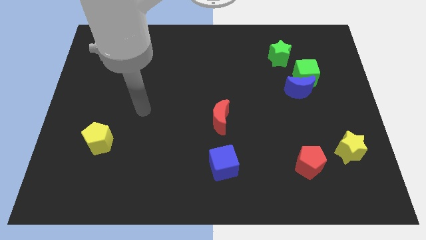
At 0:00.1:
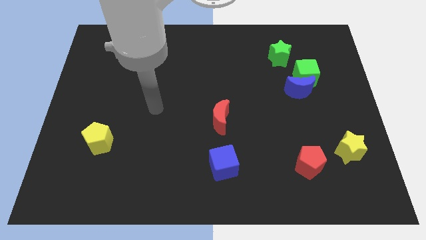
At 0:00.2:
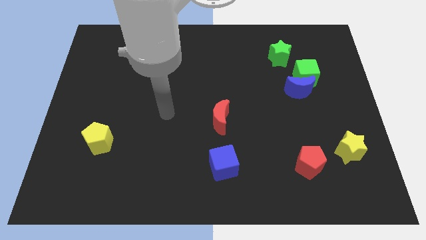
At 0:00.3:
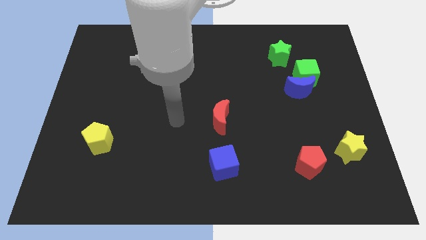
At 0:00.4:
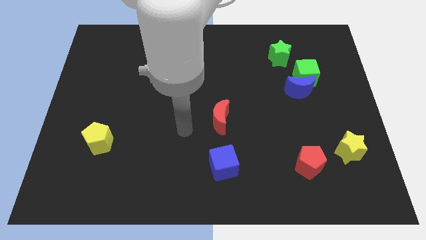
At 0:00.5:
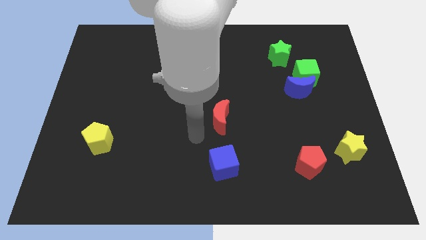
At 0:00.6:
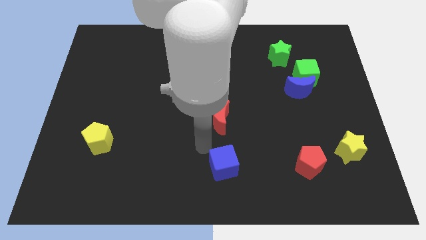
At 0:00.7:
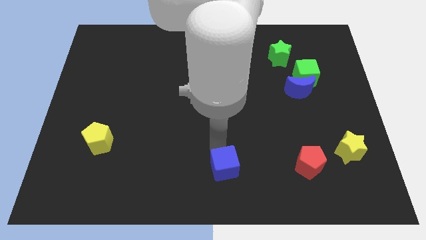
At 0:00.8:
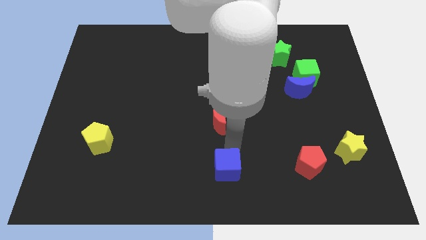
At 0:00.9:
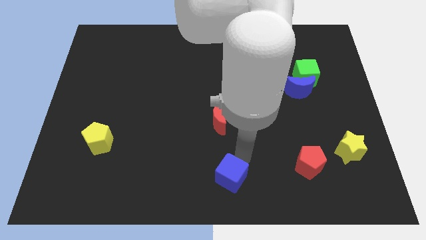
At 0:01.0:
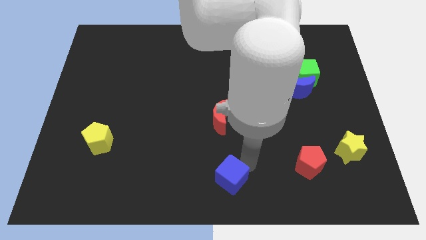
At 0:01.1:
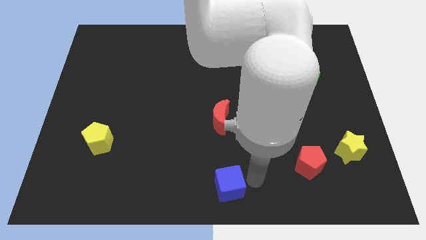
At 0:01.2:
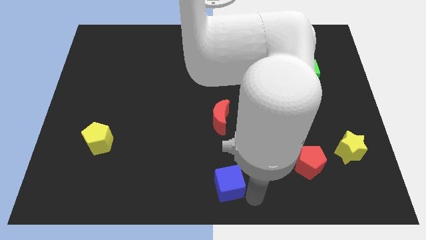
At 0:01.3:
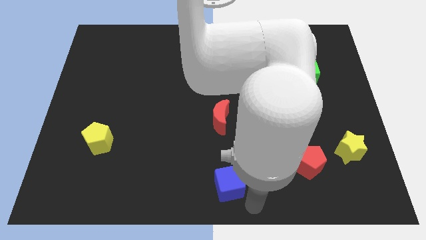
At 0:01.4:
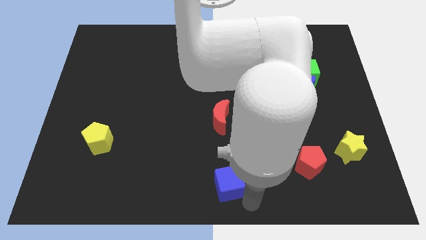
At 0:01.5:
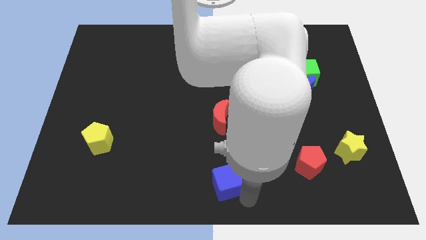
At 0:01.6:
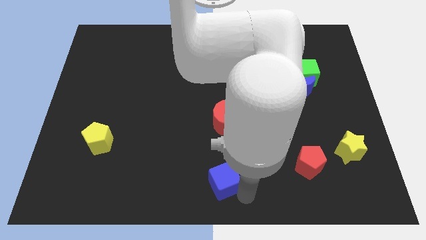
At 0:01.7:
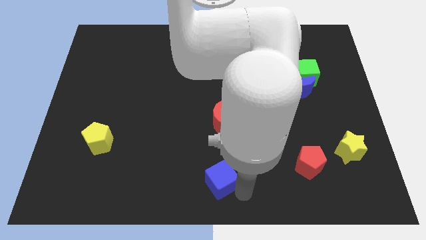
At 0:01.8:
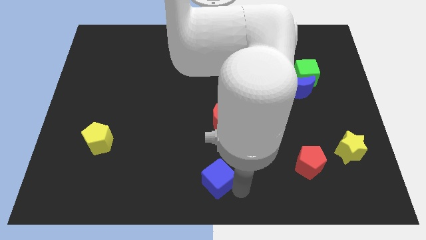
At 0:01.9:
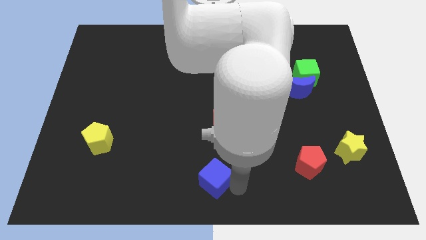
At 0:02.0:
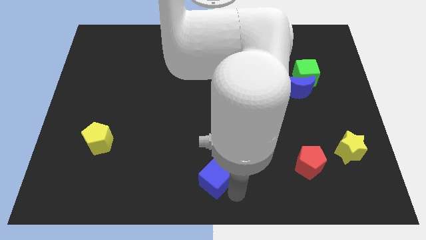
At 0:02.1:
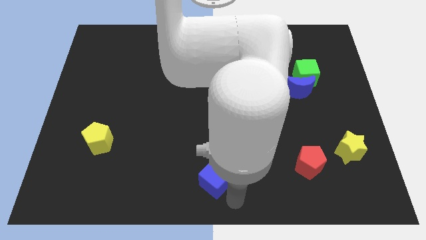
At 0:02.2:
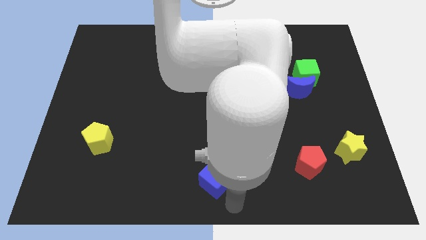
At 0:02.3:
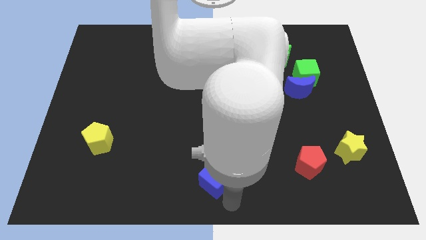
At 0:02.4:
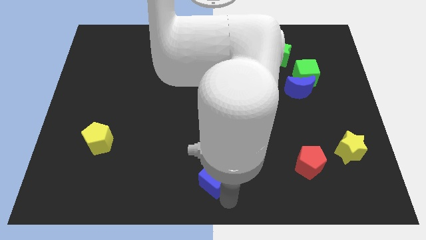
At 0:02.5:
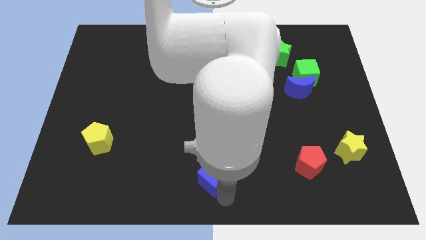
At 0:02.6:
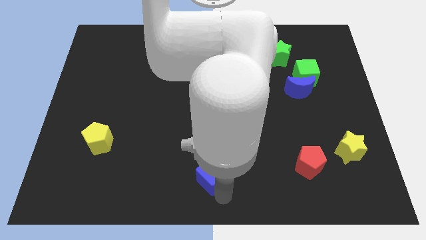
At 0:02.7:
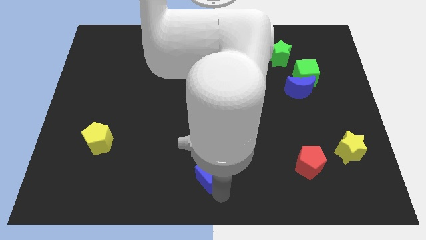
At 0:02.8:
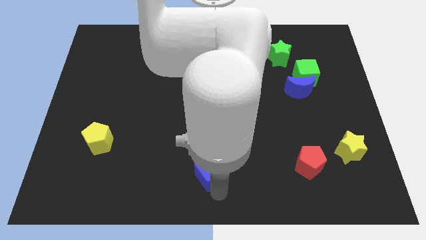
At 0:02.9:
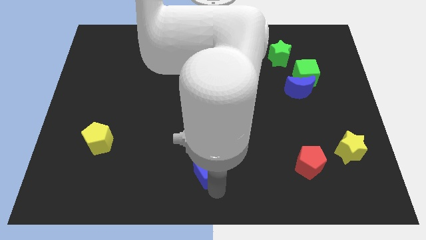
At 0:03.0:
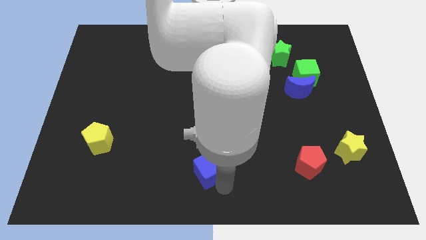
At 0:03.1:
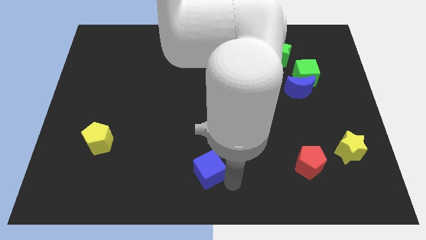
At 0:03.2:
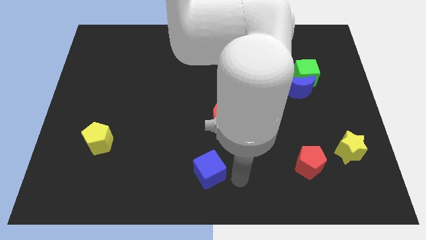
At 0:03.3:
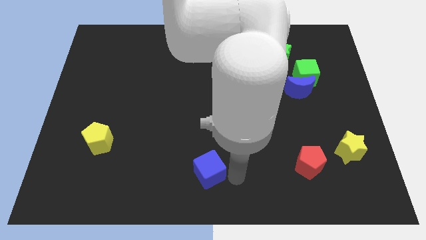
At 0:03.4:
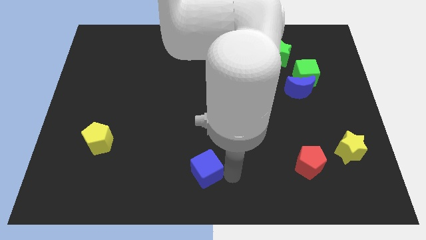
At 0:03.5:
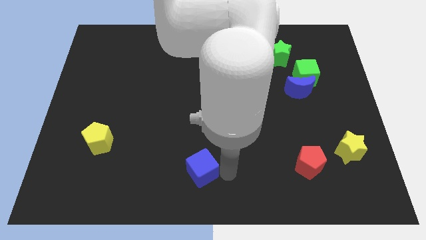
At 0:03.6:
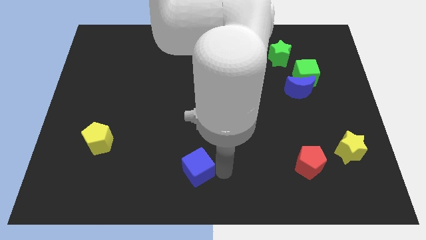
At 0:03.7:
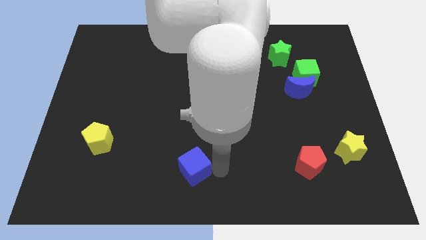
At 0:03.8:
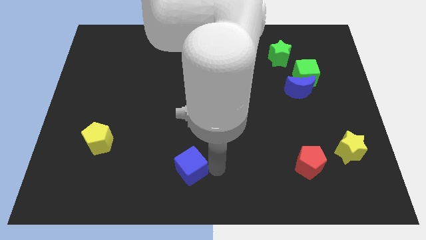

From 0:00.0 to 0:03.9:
slide the blue cube to the left a little bit

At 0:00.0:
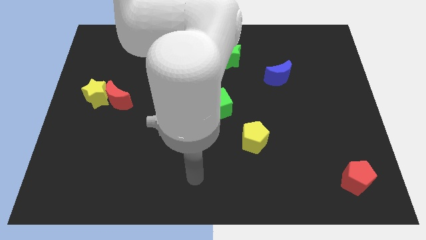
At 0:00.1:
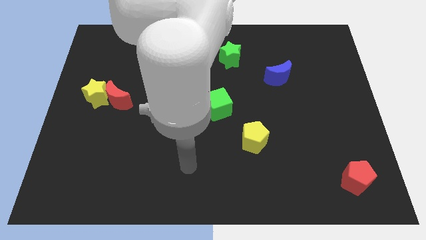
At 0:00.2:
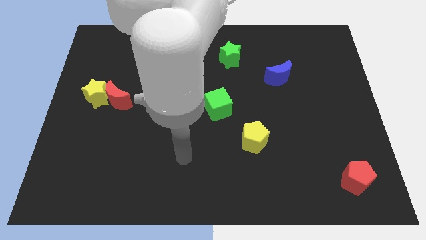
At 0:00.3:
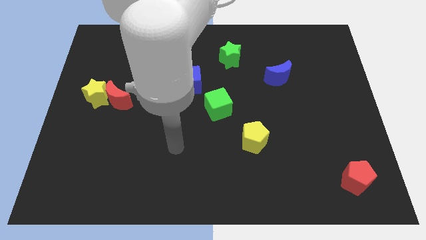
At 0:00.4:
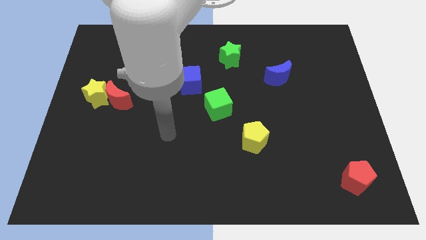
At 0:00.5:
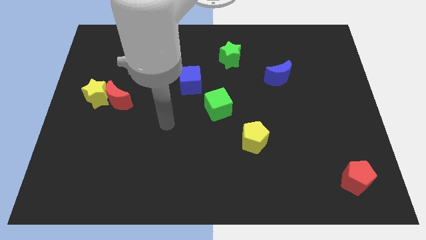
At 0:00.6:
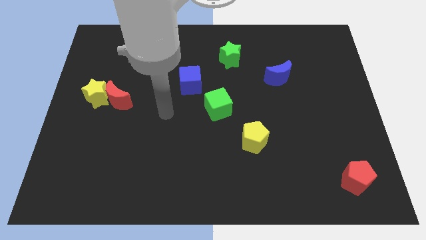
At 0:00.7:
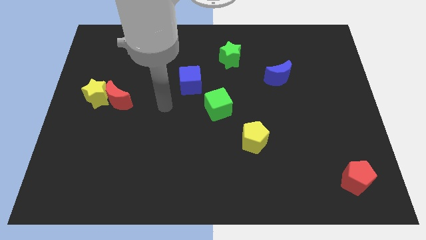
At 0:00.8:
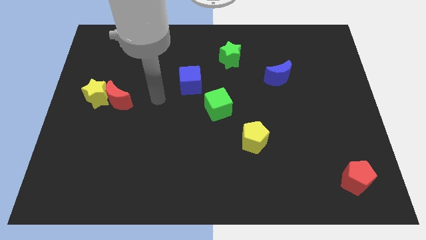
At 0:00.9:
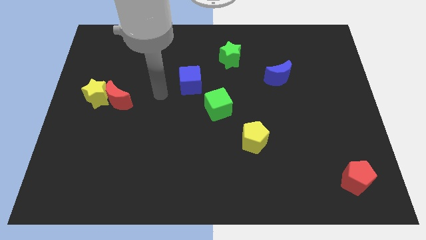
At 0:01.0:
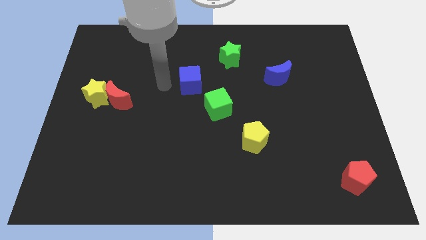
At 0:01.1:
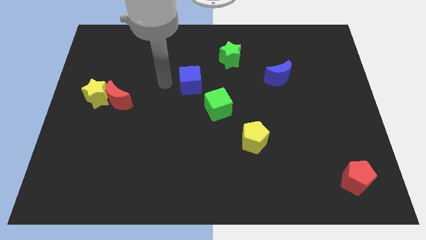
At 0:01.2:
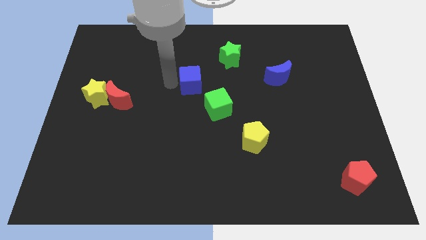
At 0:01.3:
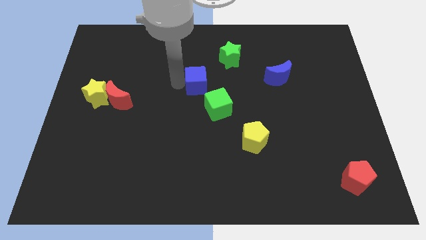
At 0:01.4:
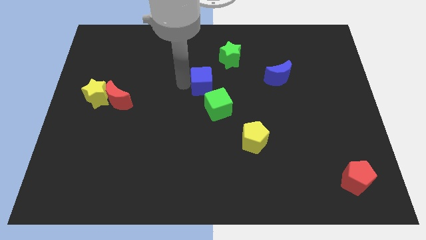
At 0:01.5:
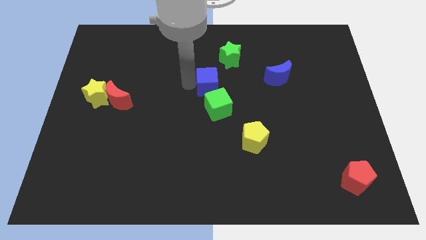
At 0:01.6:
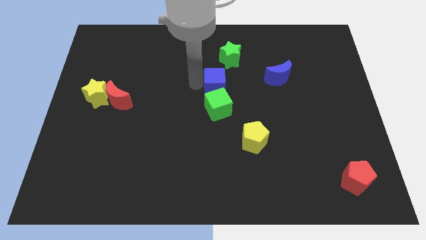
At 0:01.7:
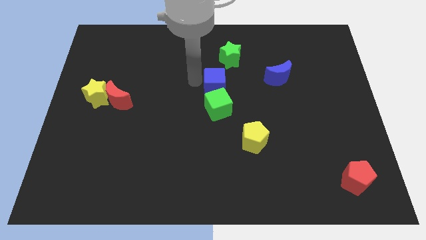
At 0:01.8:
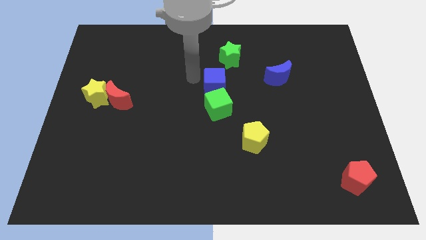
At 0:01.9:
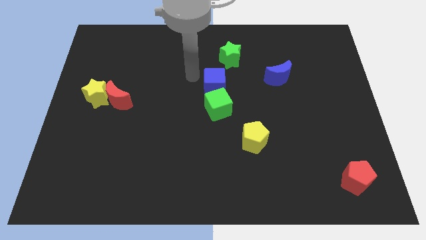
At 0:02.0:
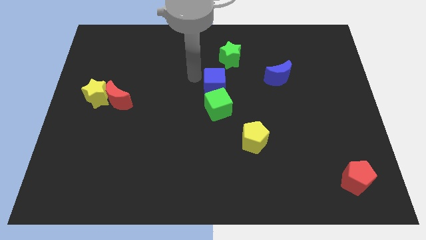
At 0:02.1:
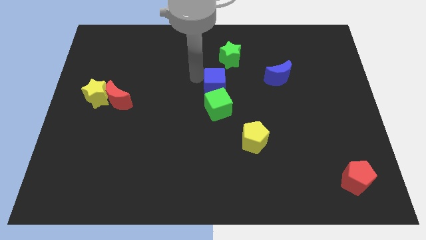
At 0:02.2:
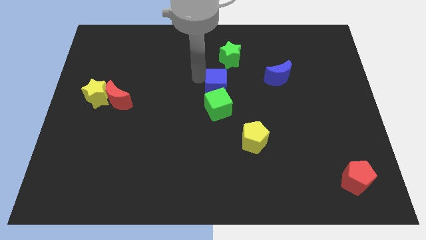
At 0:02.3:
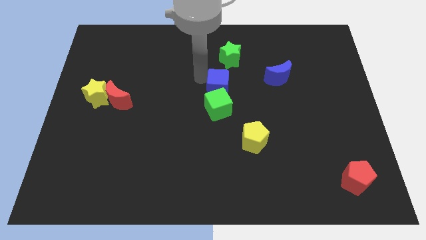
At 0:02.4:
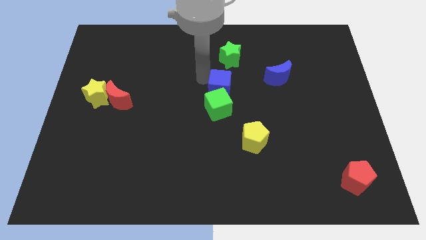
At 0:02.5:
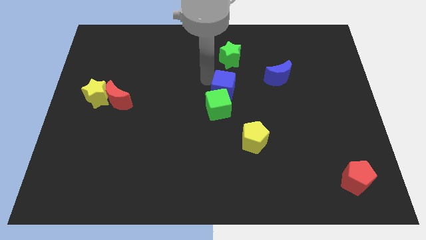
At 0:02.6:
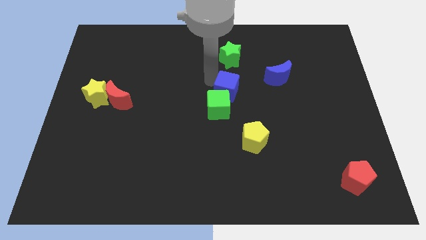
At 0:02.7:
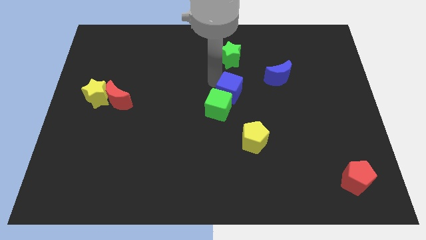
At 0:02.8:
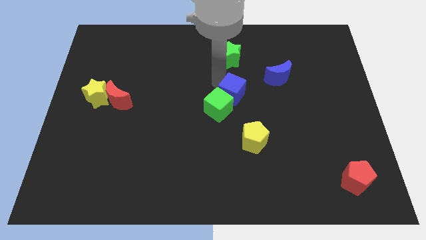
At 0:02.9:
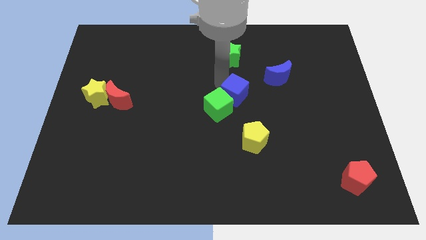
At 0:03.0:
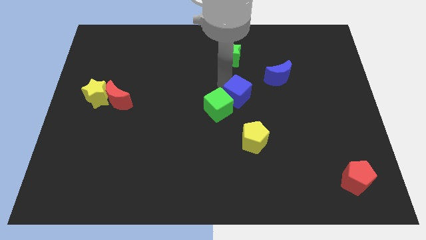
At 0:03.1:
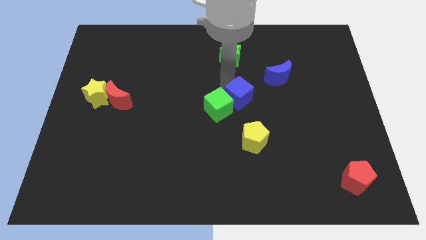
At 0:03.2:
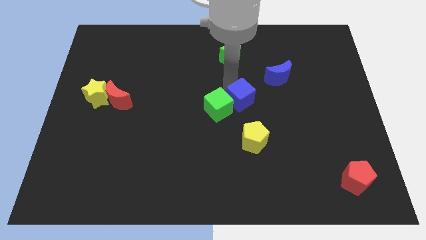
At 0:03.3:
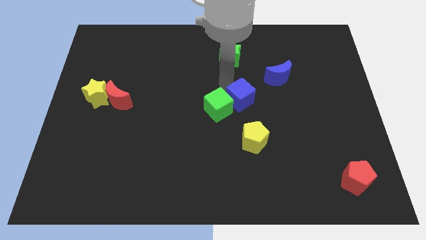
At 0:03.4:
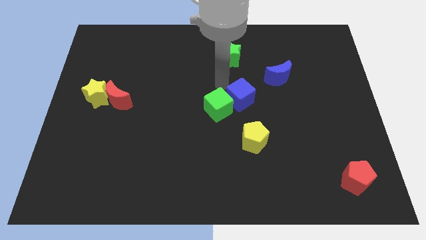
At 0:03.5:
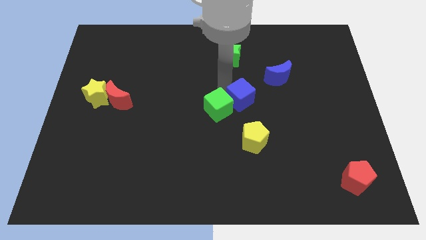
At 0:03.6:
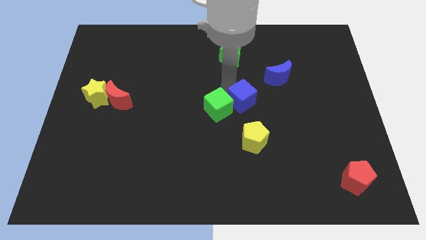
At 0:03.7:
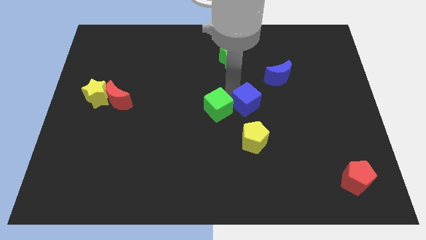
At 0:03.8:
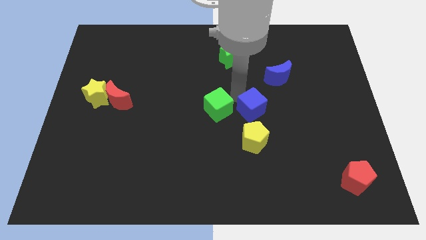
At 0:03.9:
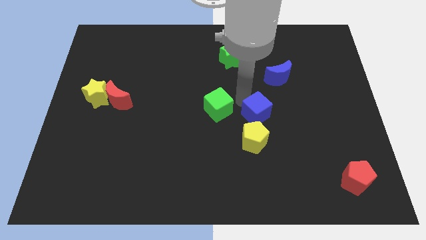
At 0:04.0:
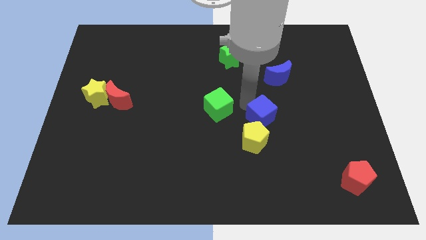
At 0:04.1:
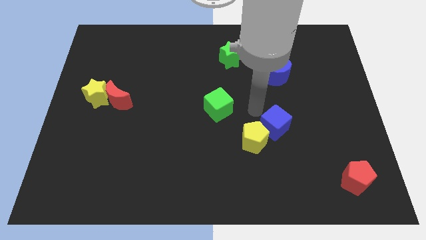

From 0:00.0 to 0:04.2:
push the blue cube down and to the right diagonally
